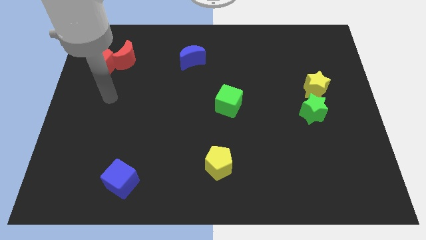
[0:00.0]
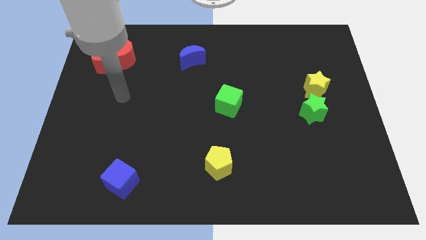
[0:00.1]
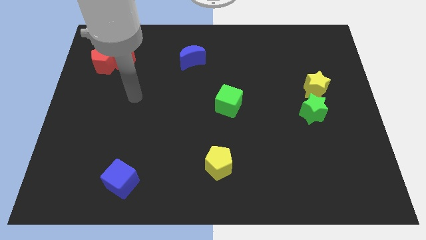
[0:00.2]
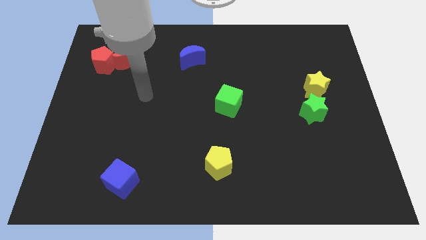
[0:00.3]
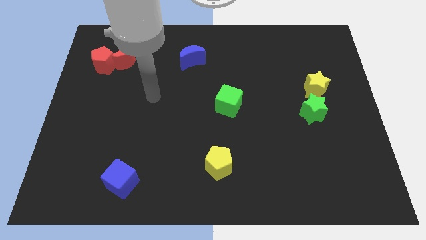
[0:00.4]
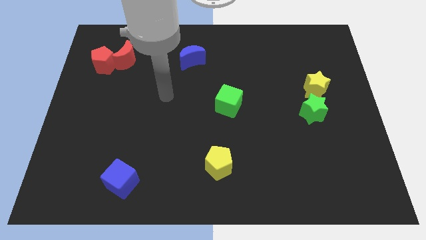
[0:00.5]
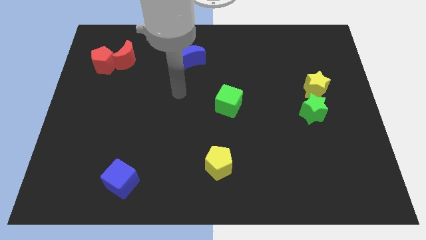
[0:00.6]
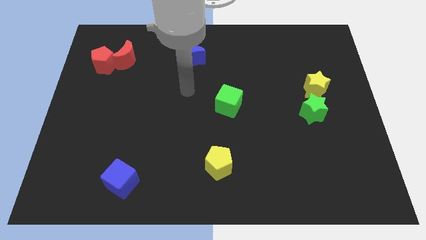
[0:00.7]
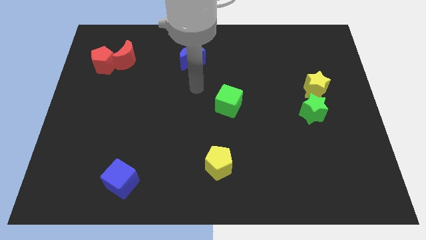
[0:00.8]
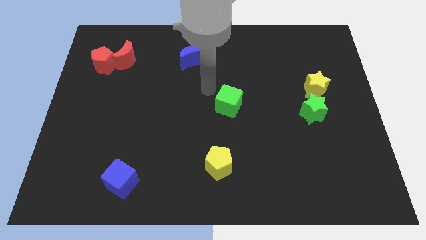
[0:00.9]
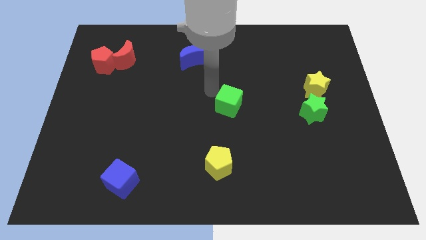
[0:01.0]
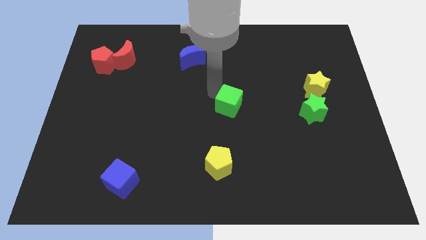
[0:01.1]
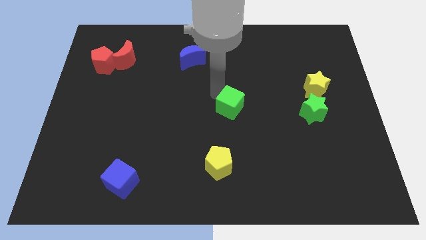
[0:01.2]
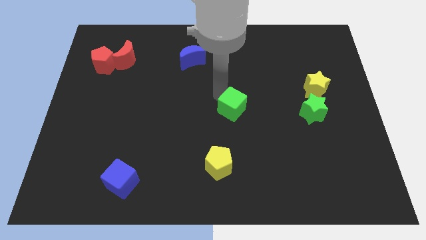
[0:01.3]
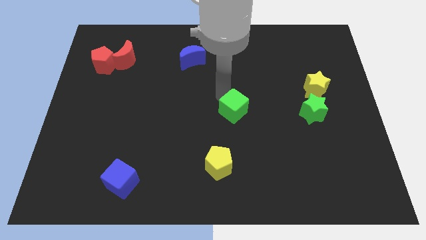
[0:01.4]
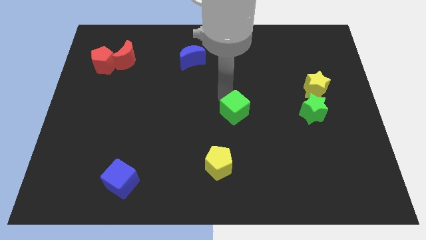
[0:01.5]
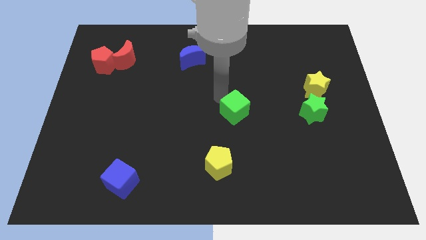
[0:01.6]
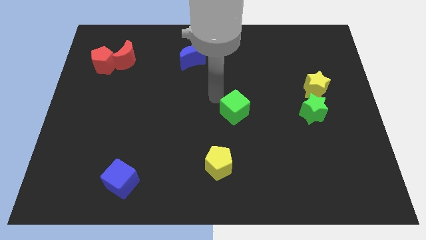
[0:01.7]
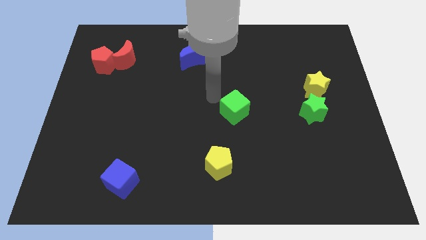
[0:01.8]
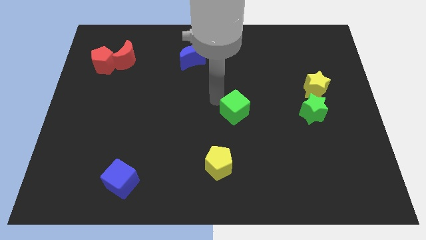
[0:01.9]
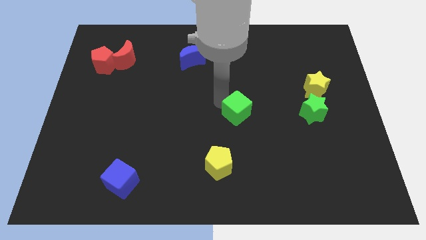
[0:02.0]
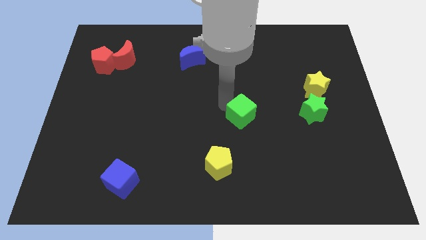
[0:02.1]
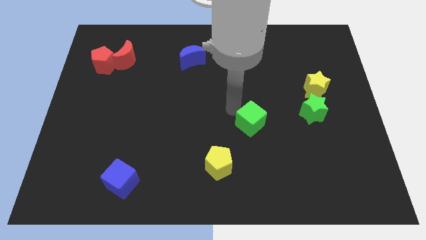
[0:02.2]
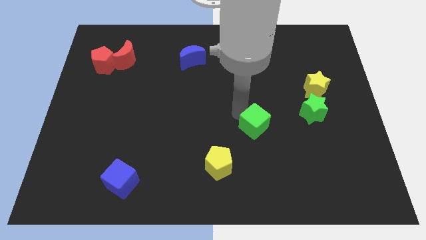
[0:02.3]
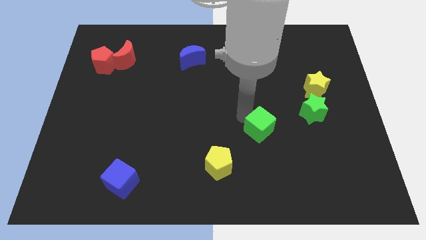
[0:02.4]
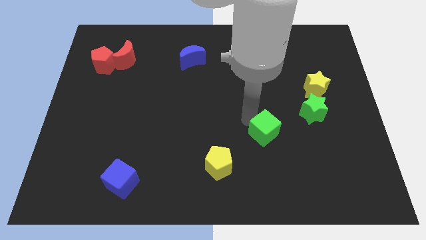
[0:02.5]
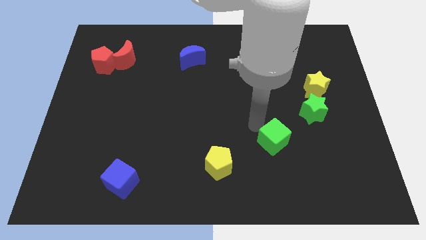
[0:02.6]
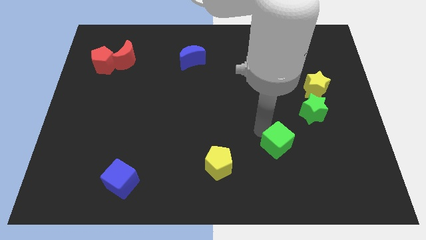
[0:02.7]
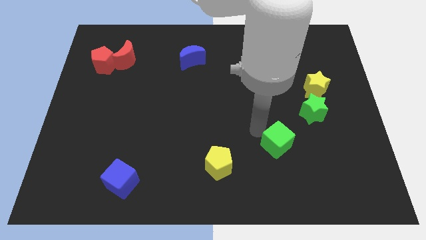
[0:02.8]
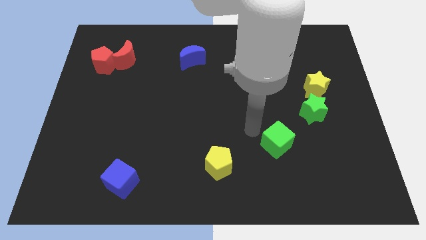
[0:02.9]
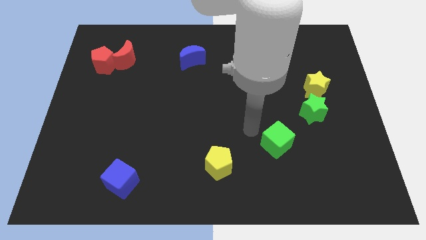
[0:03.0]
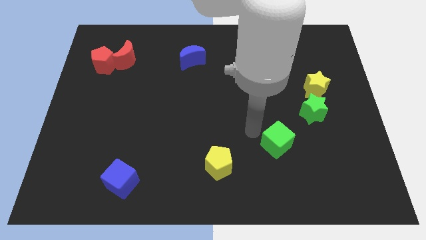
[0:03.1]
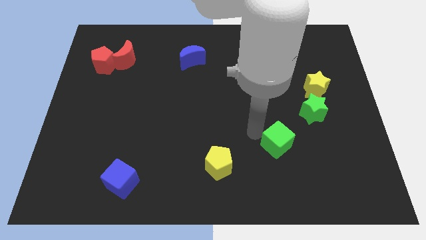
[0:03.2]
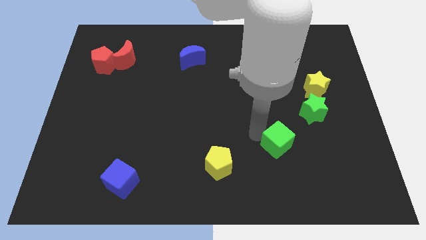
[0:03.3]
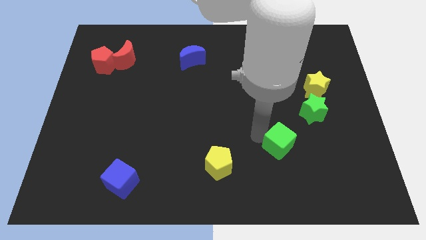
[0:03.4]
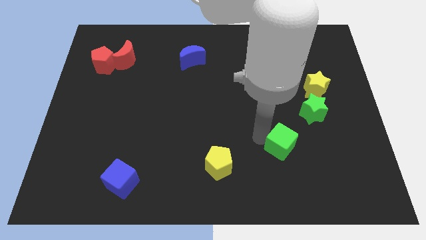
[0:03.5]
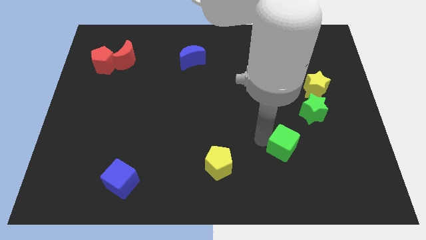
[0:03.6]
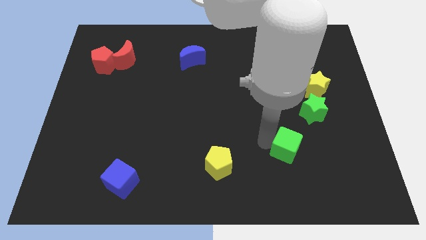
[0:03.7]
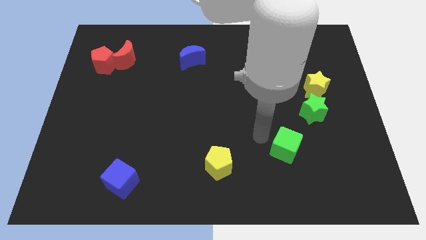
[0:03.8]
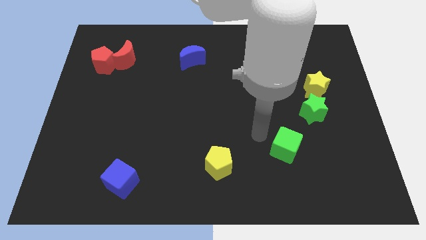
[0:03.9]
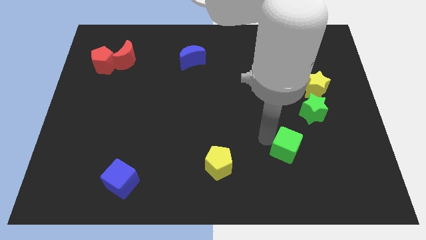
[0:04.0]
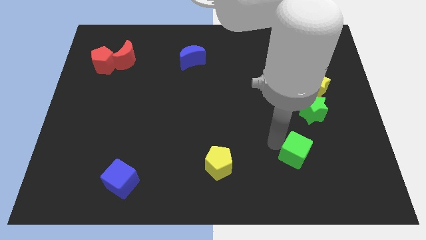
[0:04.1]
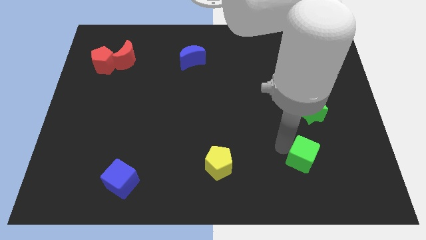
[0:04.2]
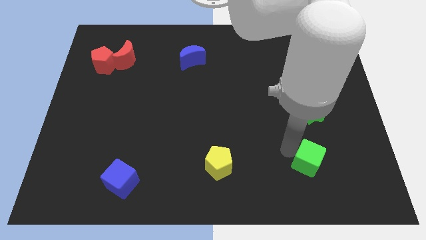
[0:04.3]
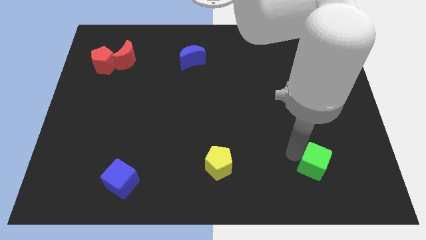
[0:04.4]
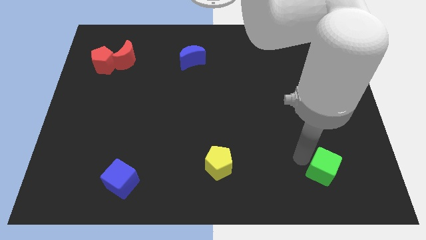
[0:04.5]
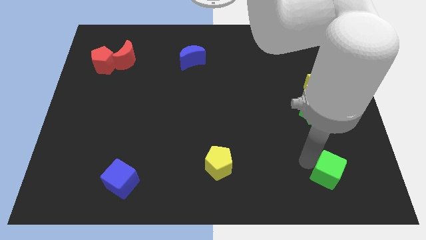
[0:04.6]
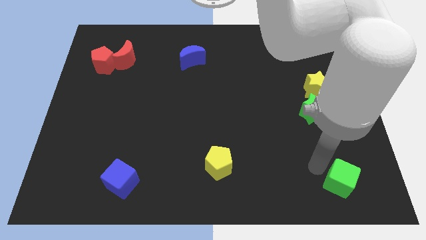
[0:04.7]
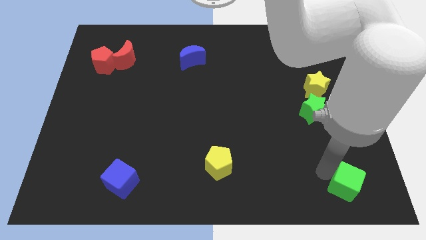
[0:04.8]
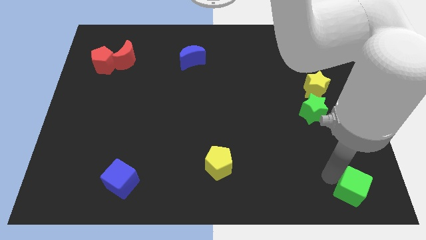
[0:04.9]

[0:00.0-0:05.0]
push the green cube to the bottom right

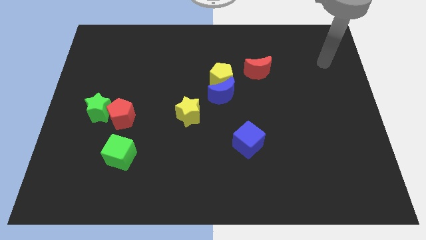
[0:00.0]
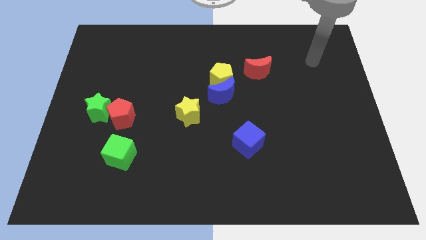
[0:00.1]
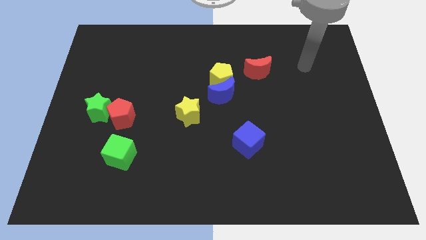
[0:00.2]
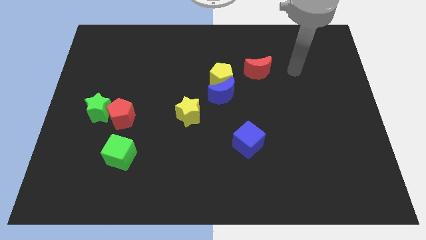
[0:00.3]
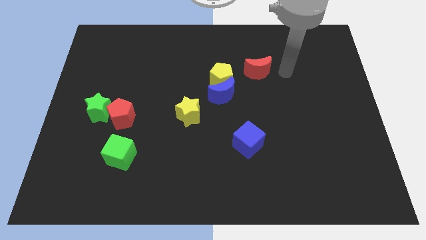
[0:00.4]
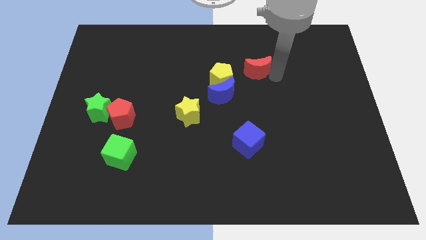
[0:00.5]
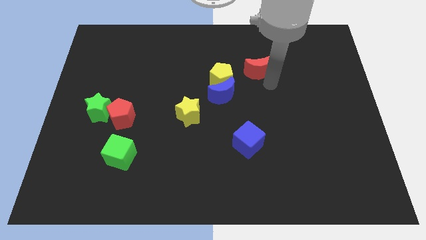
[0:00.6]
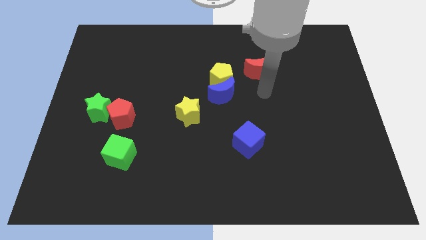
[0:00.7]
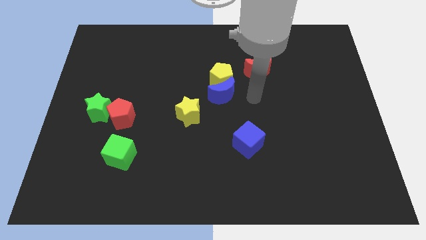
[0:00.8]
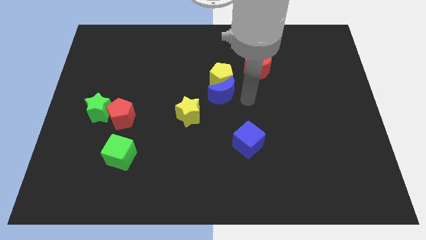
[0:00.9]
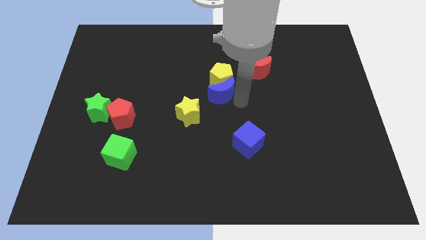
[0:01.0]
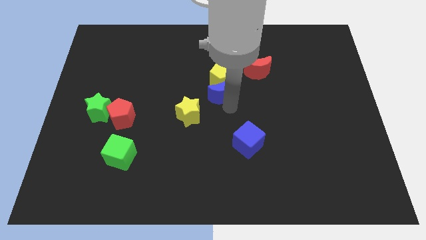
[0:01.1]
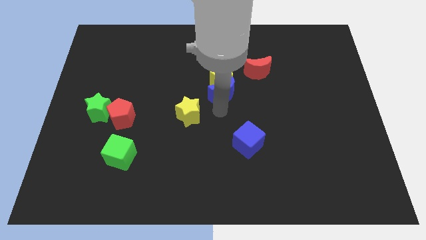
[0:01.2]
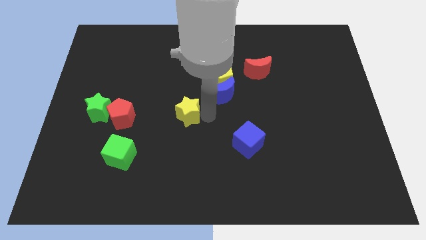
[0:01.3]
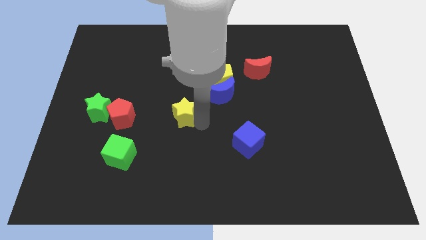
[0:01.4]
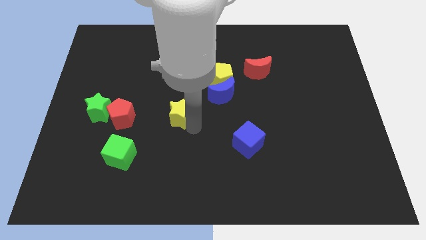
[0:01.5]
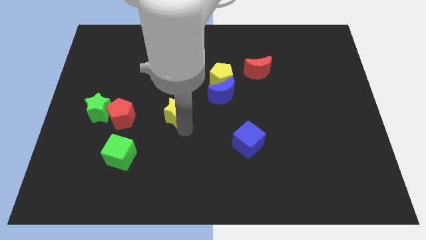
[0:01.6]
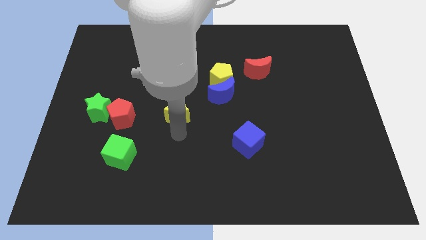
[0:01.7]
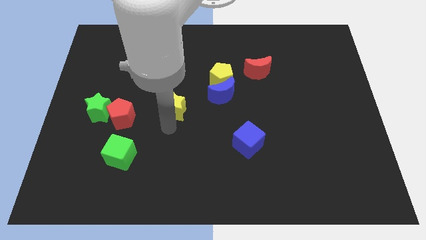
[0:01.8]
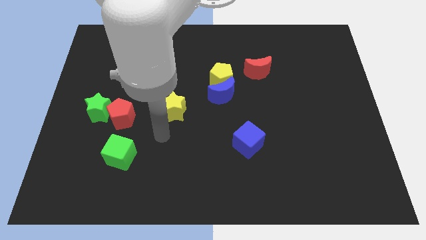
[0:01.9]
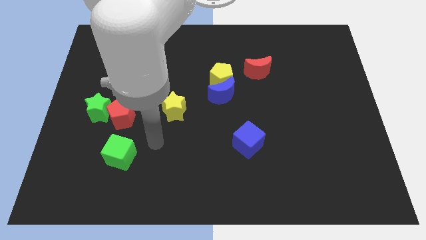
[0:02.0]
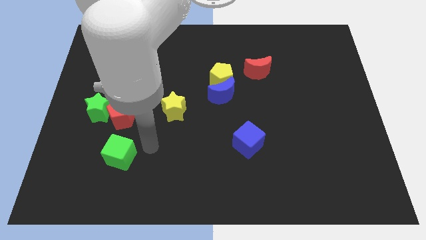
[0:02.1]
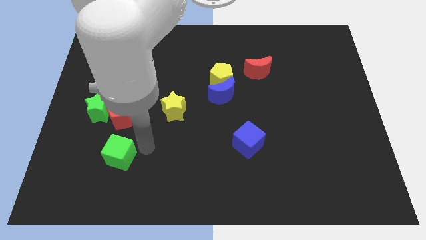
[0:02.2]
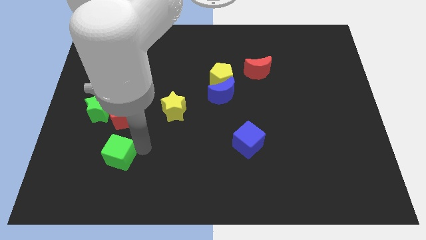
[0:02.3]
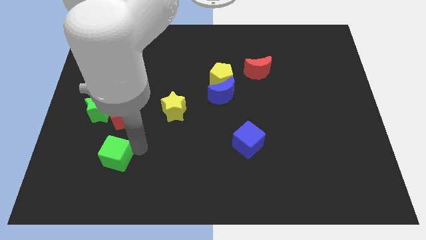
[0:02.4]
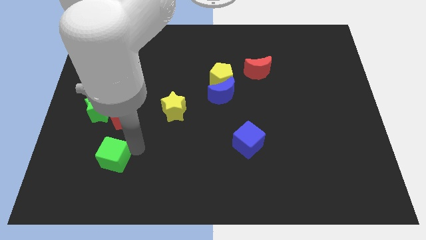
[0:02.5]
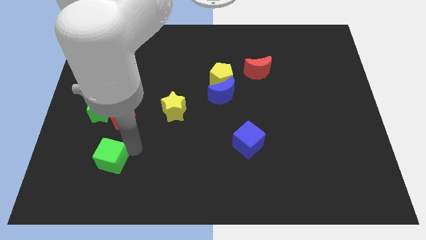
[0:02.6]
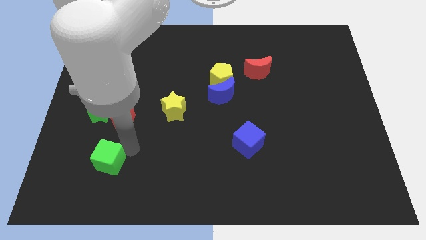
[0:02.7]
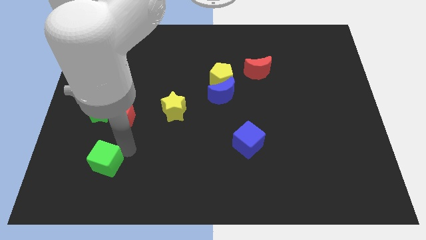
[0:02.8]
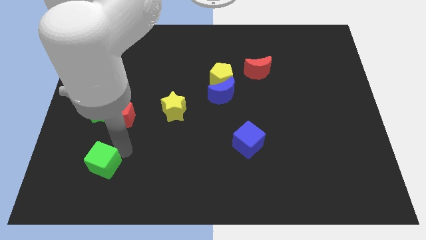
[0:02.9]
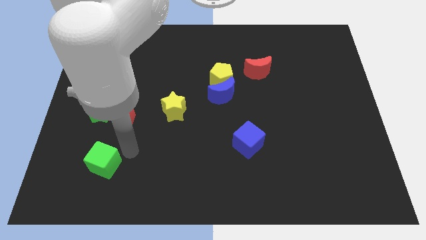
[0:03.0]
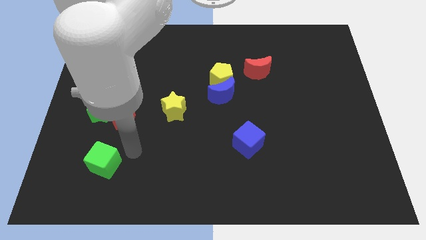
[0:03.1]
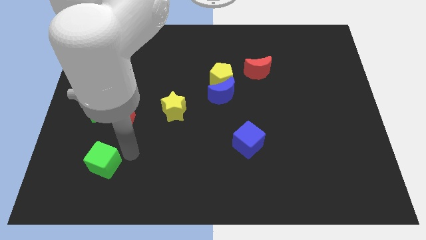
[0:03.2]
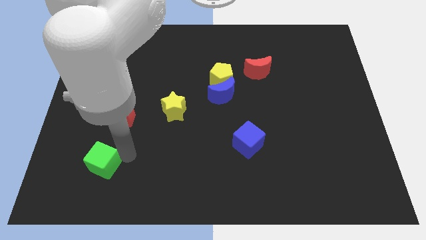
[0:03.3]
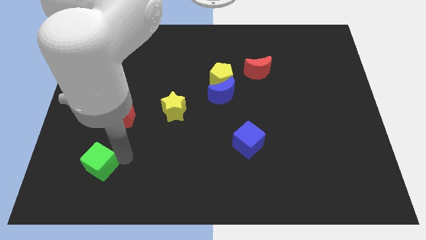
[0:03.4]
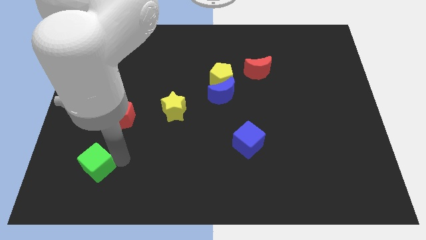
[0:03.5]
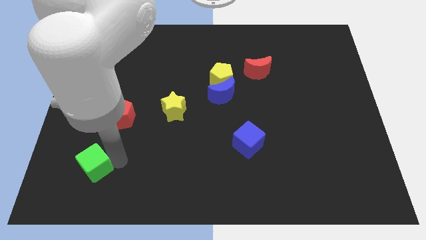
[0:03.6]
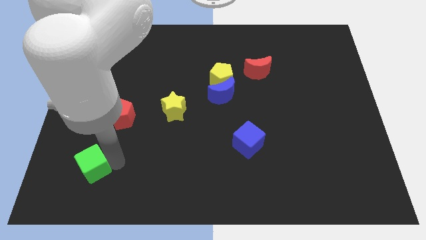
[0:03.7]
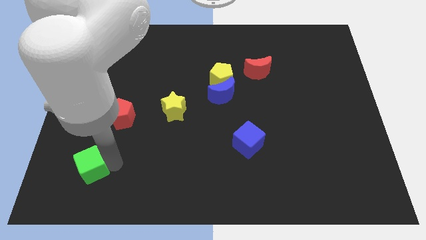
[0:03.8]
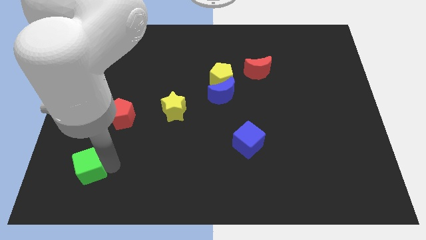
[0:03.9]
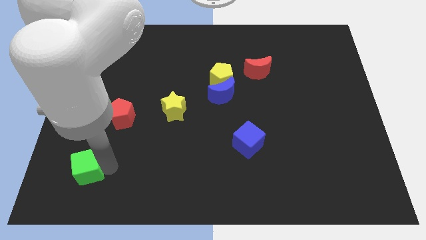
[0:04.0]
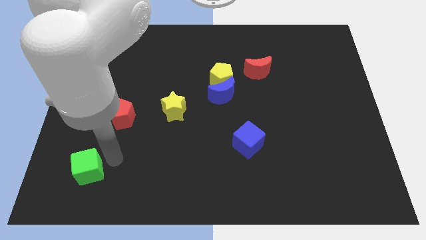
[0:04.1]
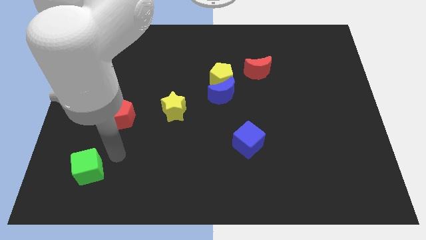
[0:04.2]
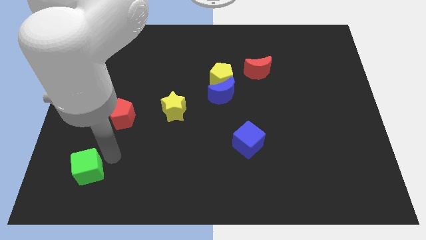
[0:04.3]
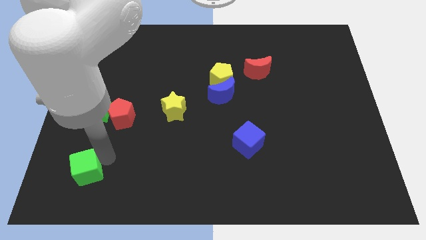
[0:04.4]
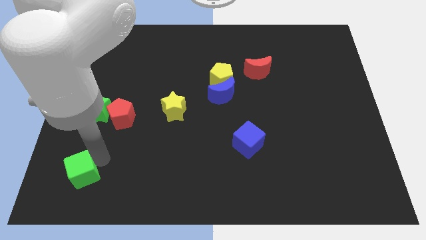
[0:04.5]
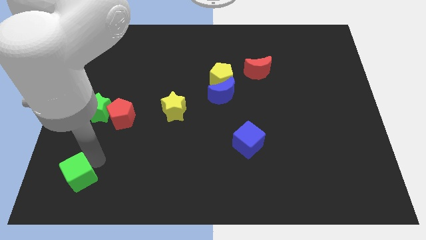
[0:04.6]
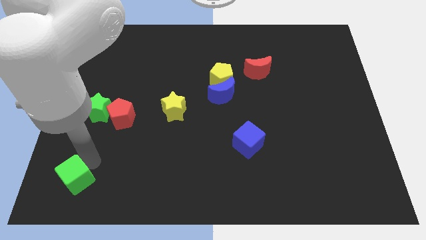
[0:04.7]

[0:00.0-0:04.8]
move the green cube to the lower left corner
